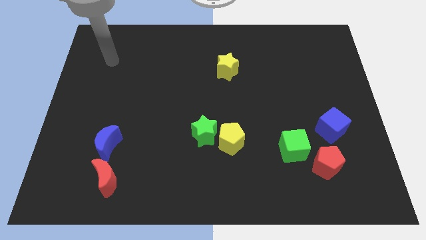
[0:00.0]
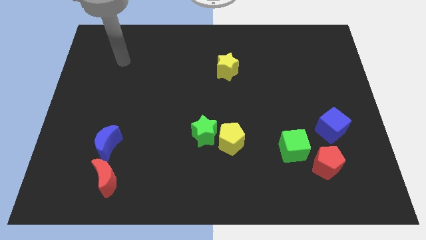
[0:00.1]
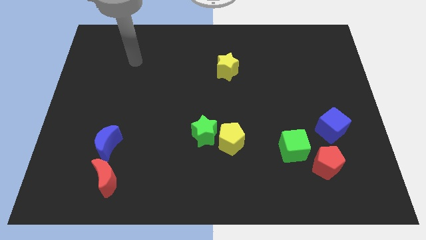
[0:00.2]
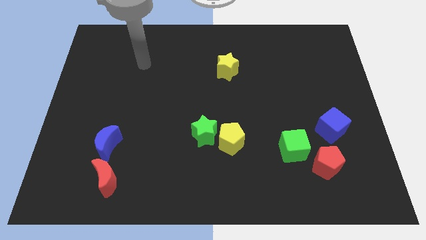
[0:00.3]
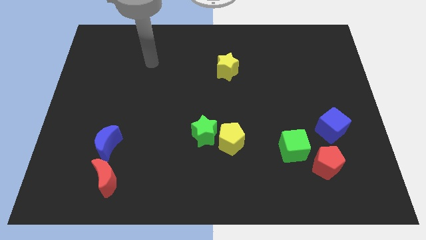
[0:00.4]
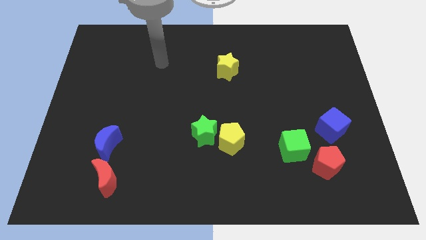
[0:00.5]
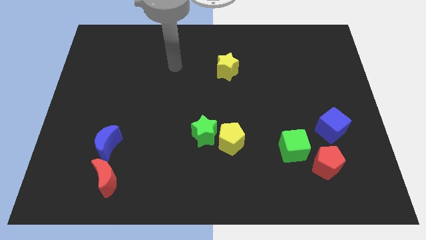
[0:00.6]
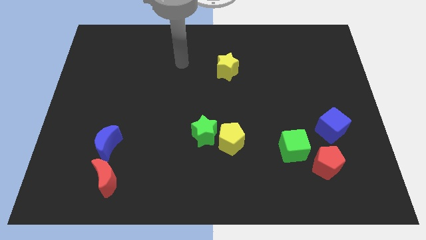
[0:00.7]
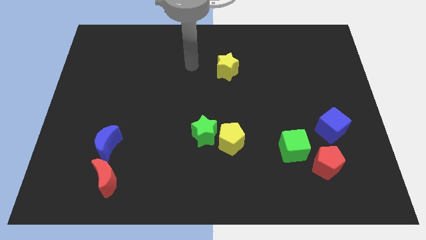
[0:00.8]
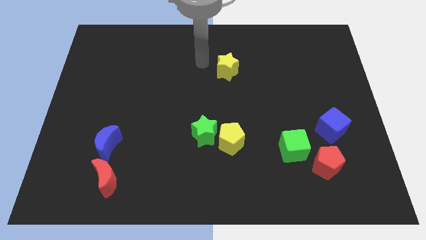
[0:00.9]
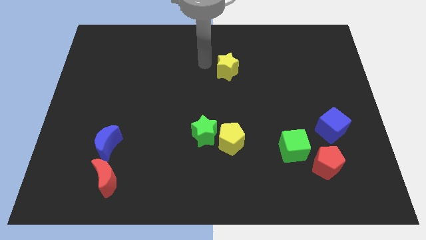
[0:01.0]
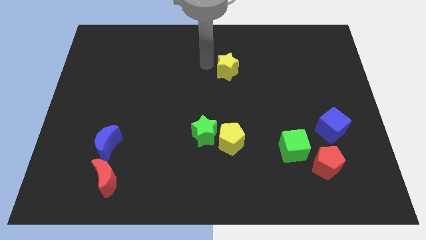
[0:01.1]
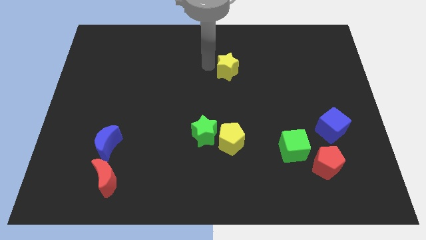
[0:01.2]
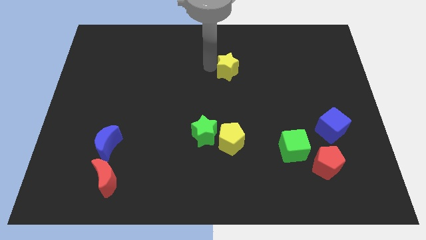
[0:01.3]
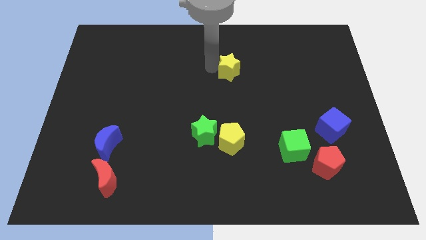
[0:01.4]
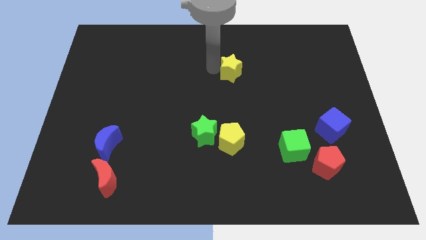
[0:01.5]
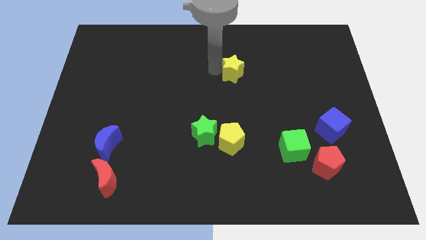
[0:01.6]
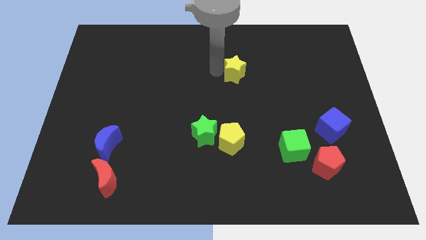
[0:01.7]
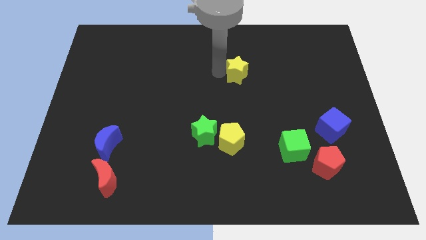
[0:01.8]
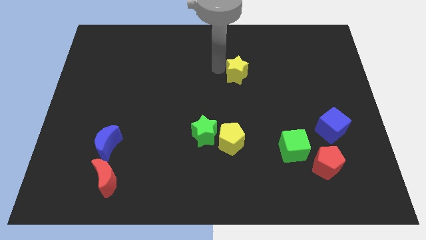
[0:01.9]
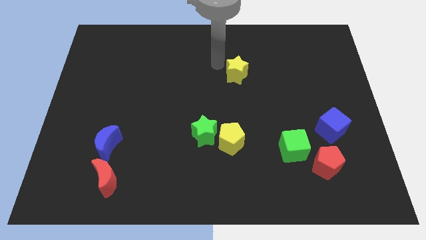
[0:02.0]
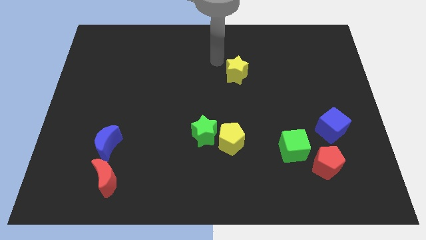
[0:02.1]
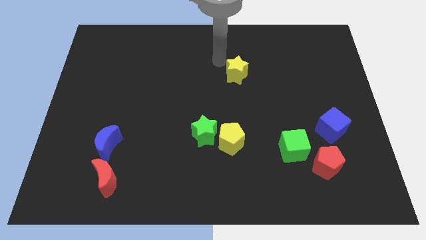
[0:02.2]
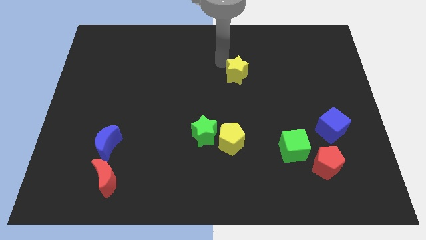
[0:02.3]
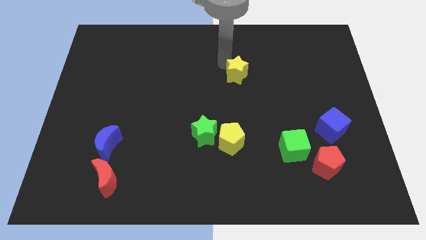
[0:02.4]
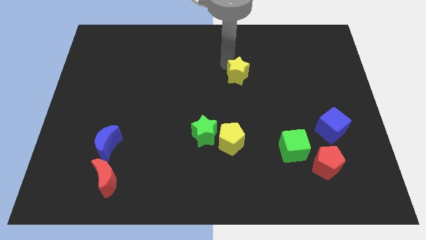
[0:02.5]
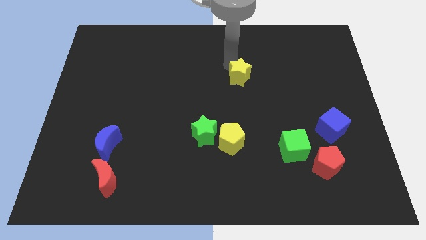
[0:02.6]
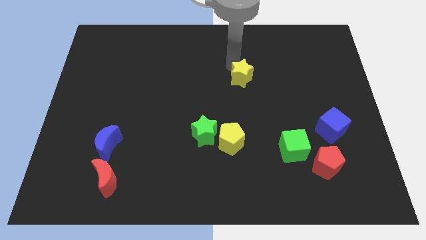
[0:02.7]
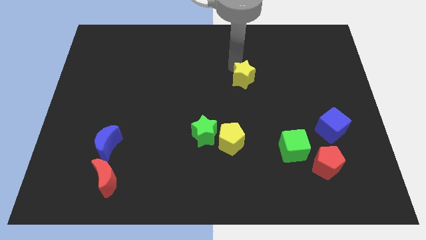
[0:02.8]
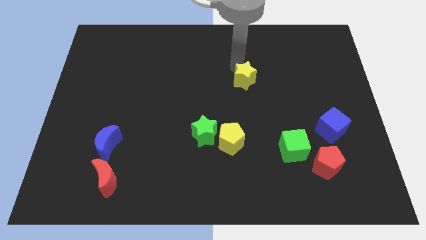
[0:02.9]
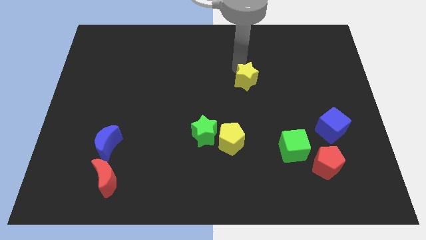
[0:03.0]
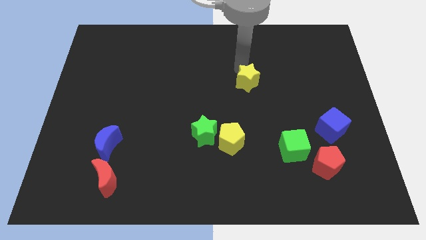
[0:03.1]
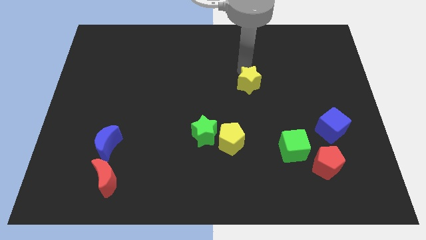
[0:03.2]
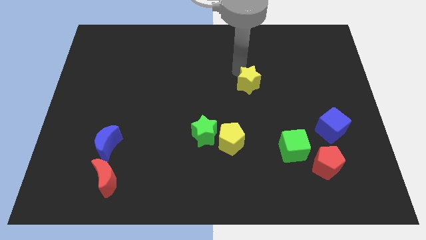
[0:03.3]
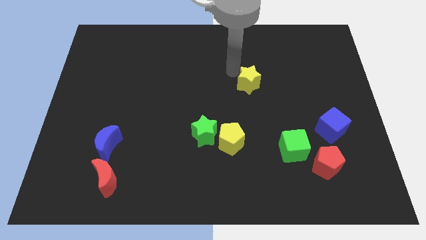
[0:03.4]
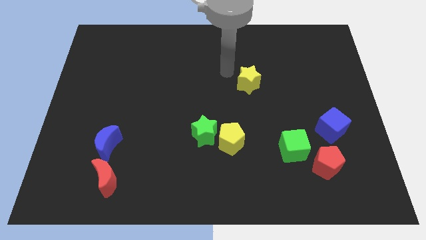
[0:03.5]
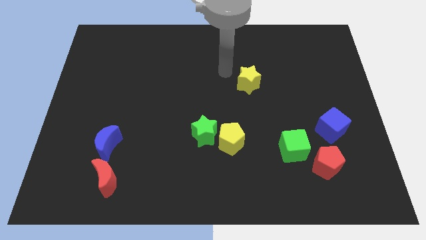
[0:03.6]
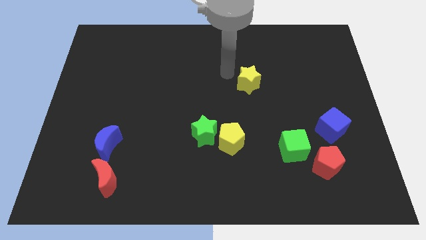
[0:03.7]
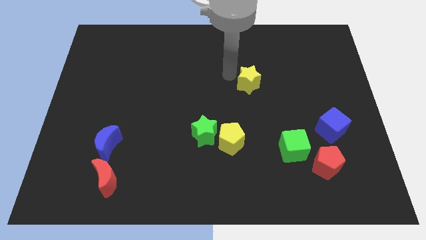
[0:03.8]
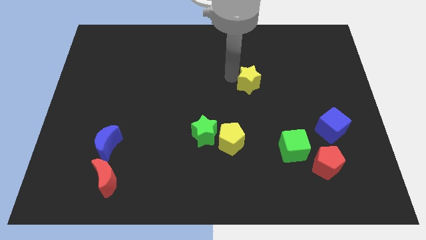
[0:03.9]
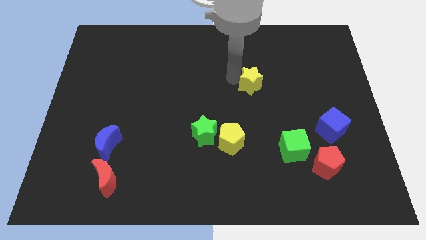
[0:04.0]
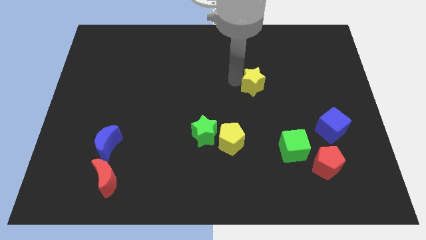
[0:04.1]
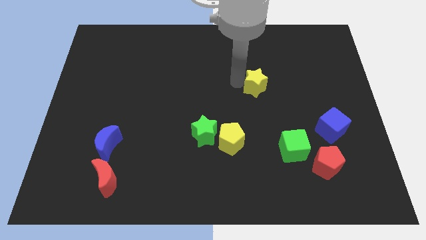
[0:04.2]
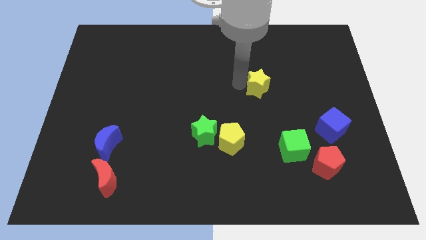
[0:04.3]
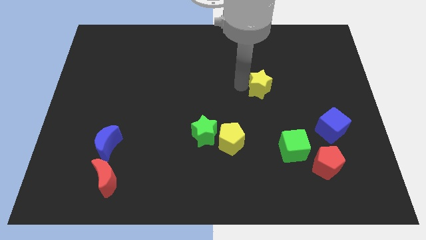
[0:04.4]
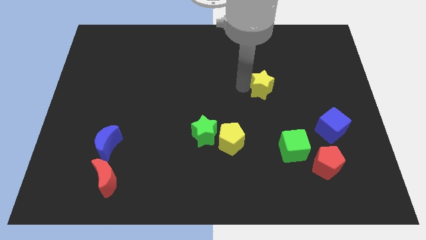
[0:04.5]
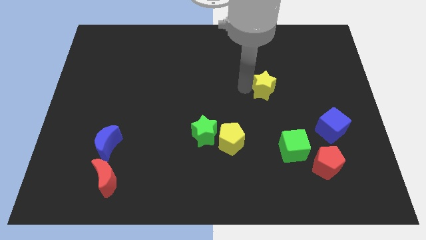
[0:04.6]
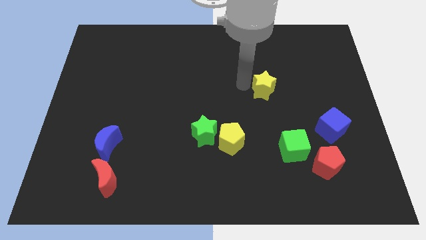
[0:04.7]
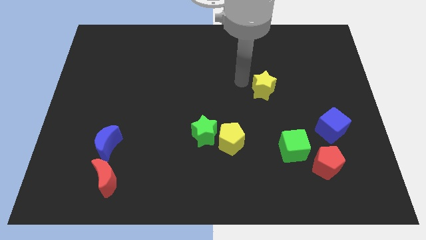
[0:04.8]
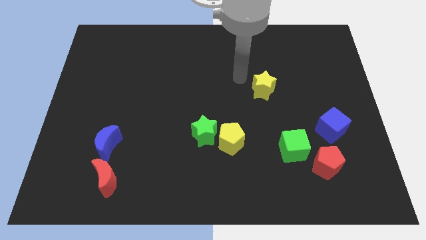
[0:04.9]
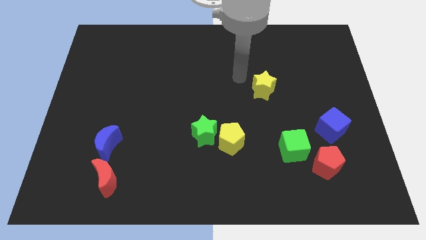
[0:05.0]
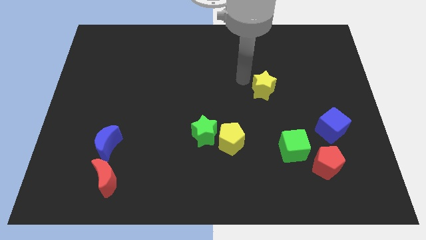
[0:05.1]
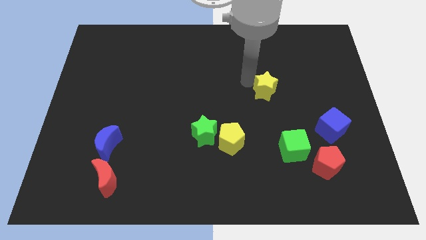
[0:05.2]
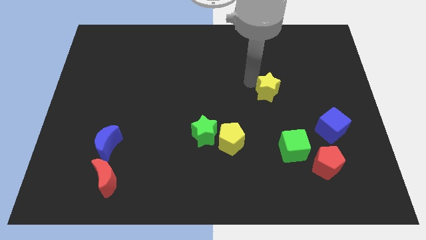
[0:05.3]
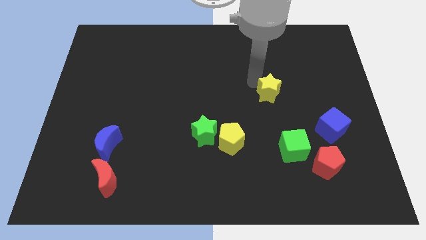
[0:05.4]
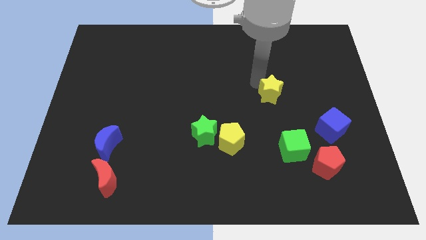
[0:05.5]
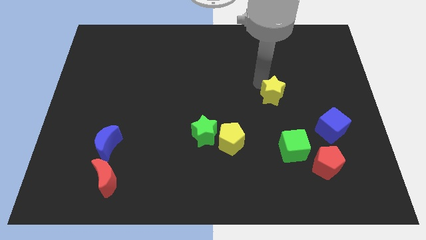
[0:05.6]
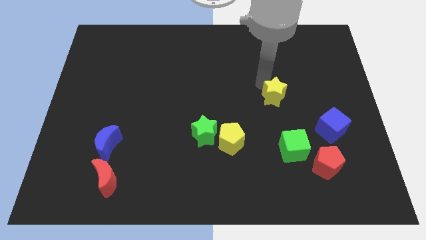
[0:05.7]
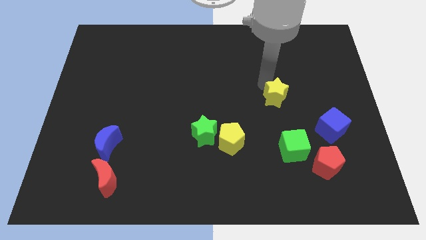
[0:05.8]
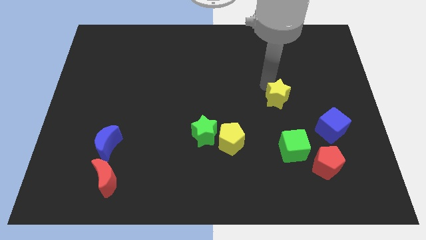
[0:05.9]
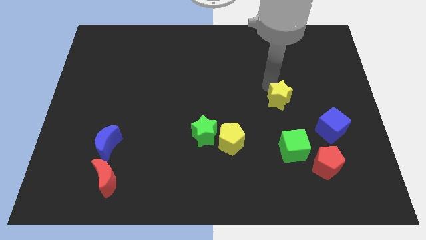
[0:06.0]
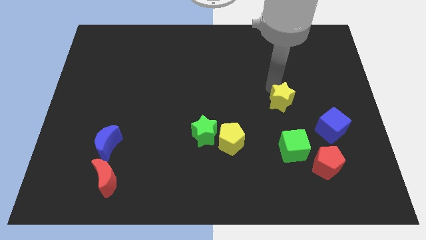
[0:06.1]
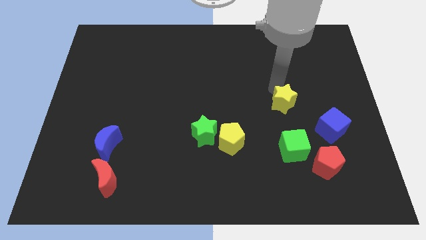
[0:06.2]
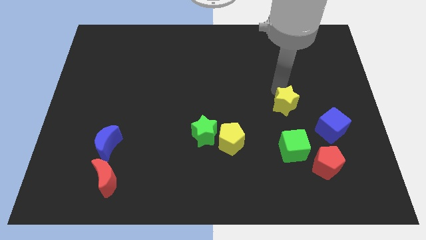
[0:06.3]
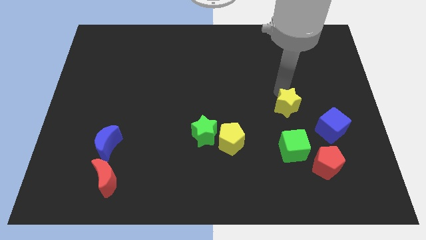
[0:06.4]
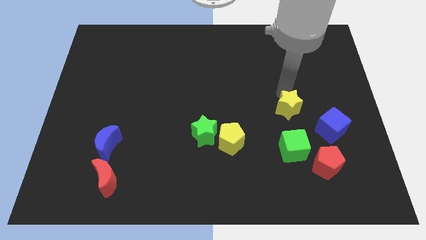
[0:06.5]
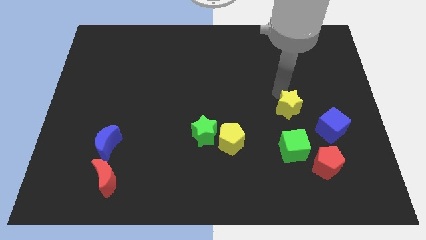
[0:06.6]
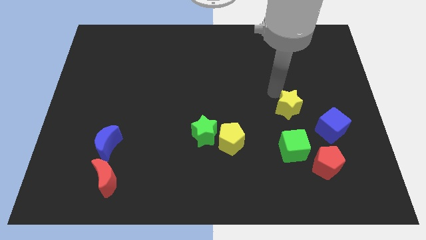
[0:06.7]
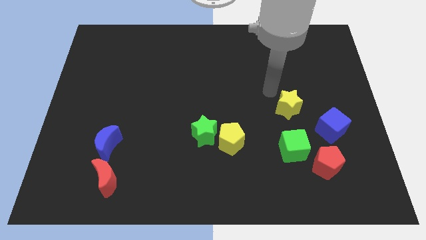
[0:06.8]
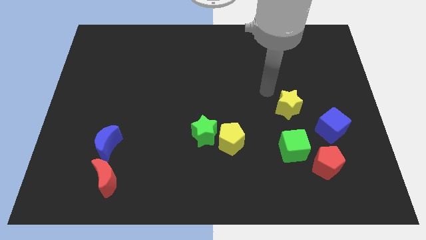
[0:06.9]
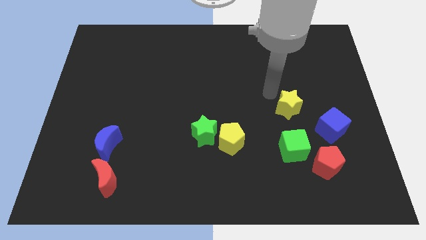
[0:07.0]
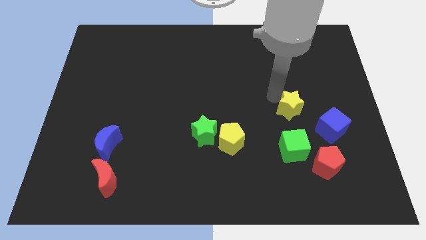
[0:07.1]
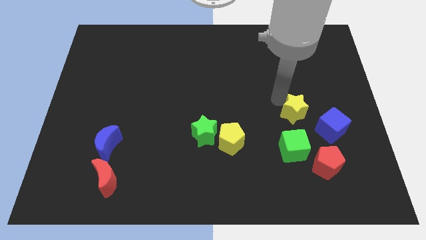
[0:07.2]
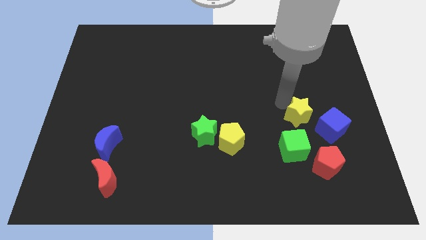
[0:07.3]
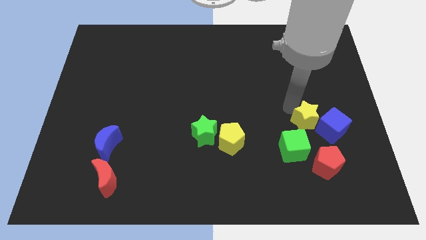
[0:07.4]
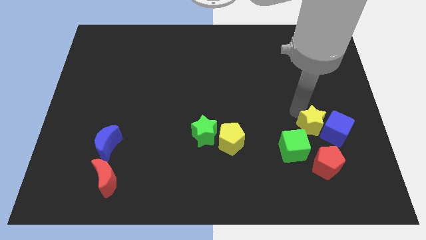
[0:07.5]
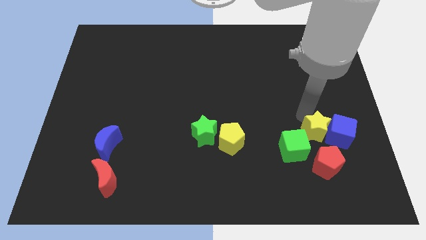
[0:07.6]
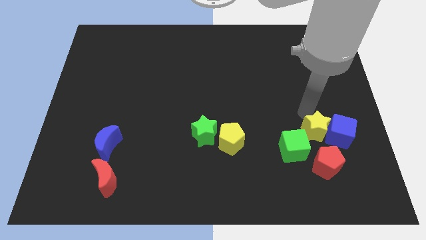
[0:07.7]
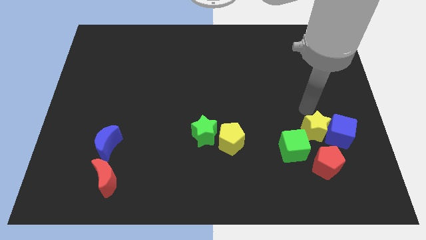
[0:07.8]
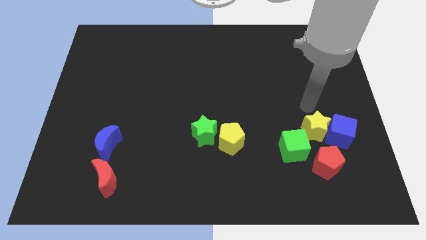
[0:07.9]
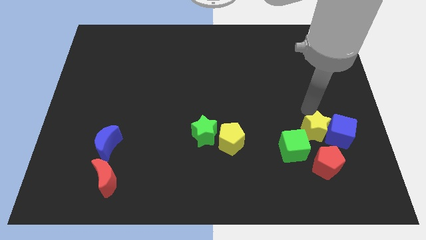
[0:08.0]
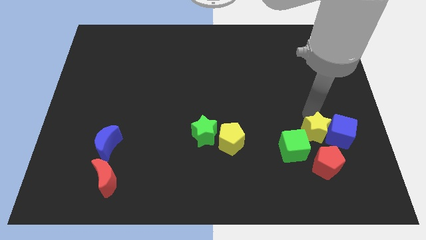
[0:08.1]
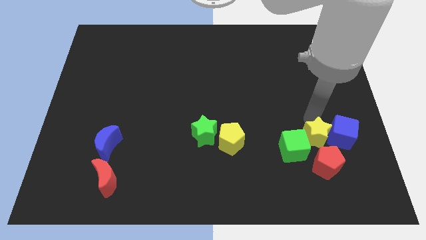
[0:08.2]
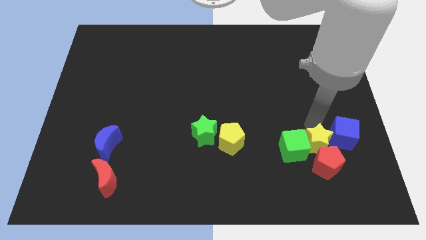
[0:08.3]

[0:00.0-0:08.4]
move the yellow star to the red pentagon
